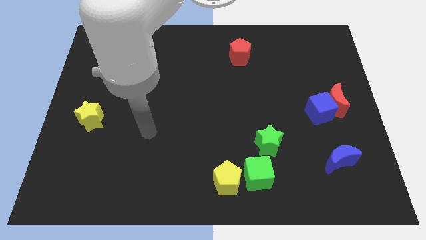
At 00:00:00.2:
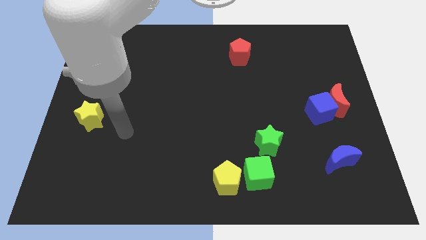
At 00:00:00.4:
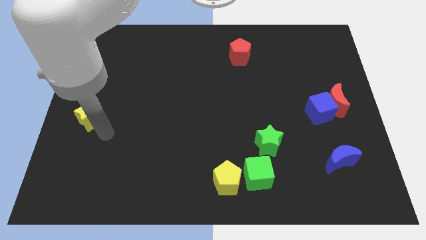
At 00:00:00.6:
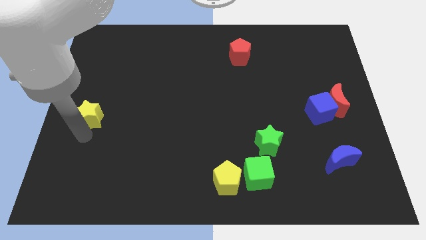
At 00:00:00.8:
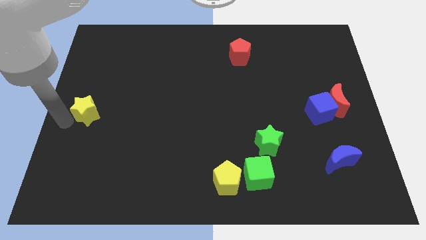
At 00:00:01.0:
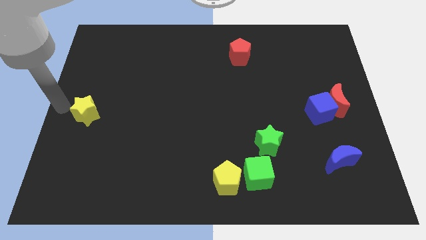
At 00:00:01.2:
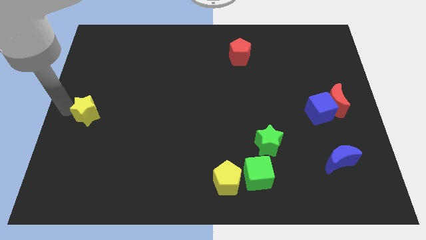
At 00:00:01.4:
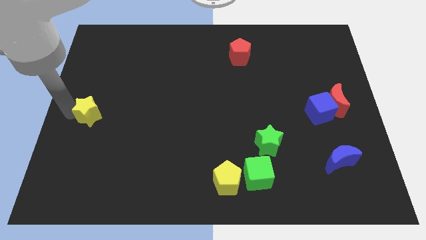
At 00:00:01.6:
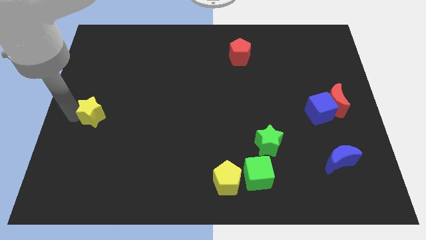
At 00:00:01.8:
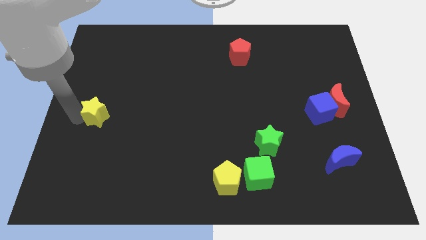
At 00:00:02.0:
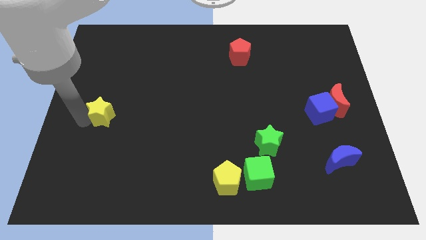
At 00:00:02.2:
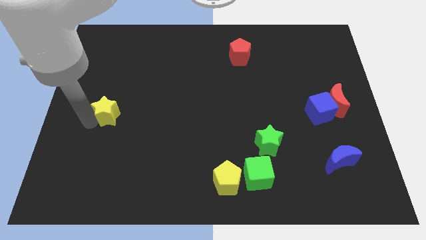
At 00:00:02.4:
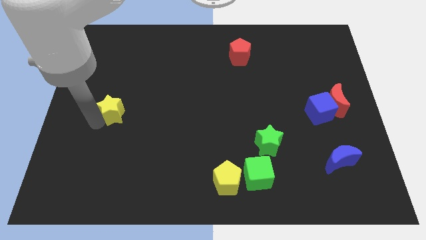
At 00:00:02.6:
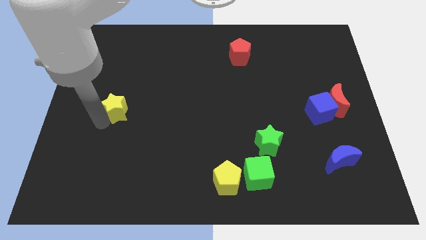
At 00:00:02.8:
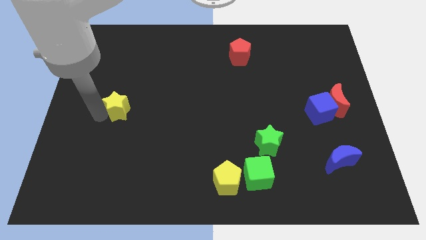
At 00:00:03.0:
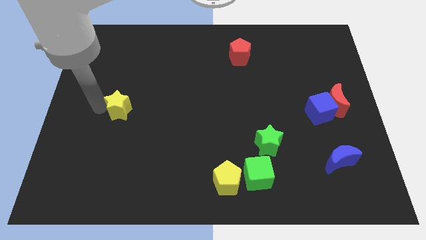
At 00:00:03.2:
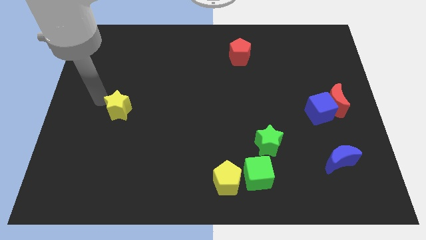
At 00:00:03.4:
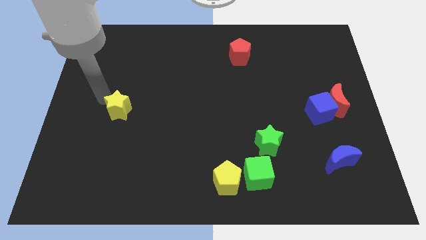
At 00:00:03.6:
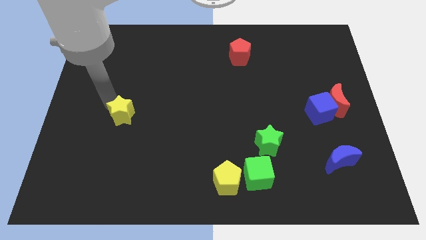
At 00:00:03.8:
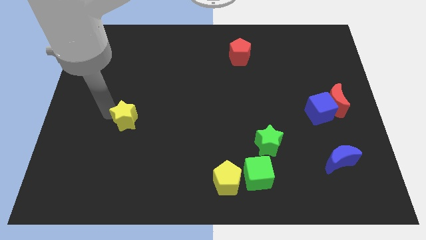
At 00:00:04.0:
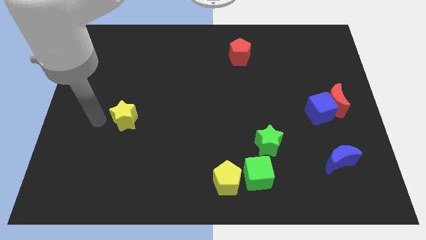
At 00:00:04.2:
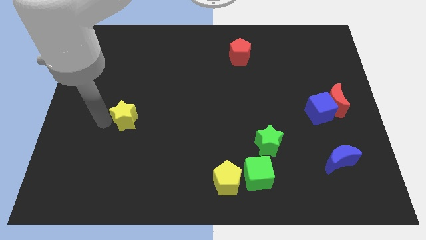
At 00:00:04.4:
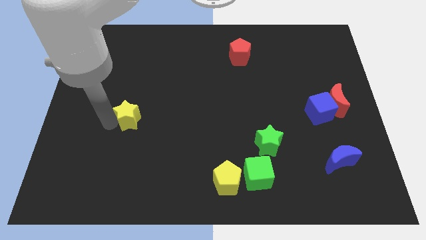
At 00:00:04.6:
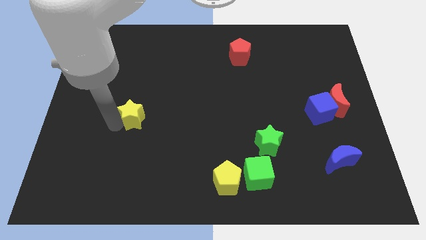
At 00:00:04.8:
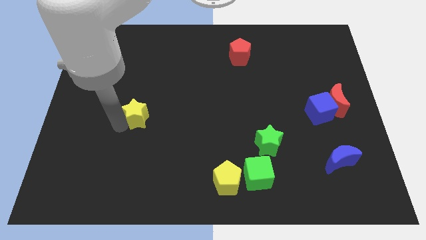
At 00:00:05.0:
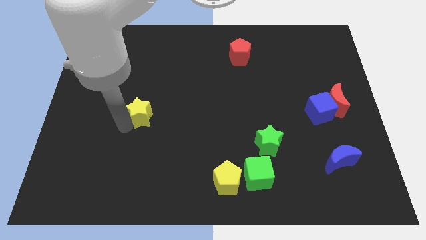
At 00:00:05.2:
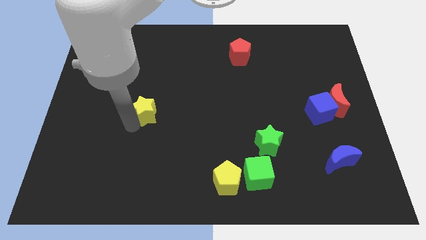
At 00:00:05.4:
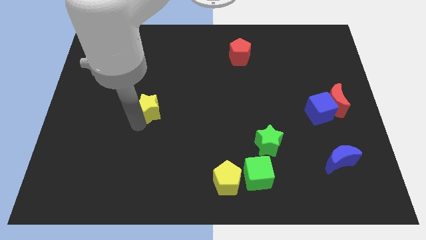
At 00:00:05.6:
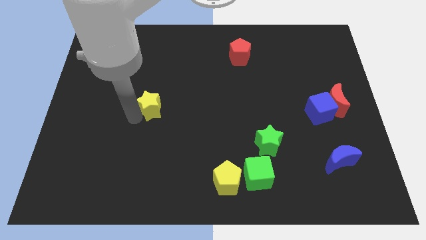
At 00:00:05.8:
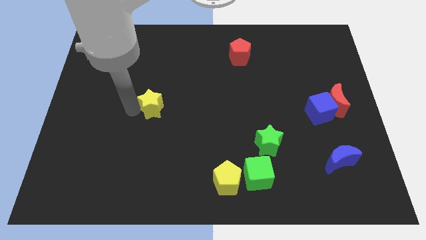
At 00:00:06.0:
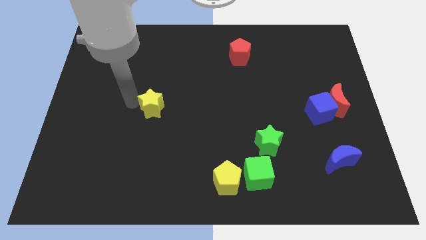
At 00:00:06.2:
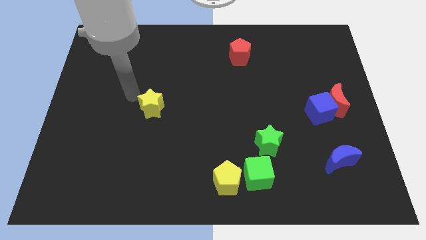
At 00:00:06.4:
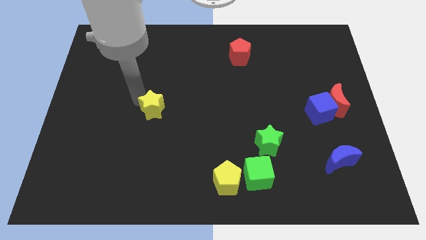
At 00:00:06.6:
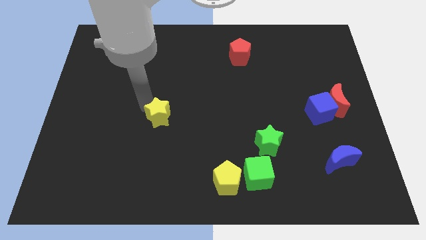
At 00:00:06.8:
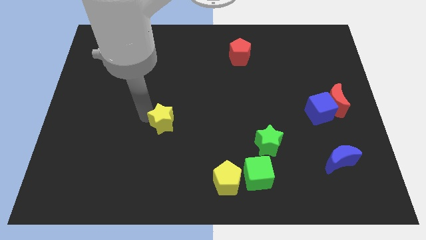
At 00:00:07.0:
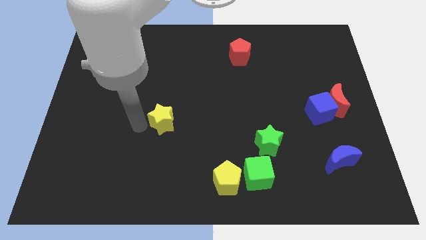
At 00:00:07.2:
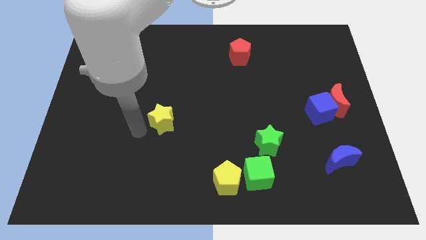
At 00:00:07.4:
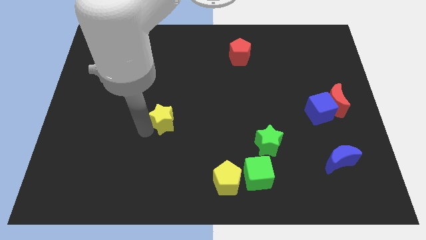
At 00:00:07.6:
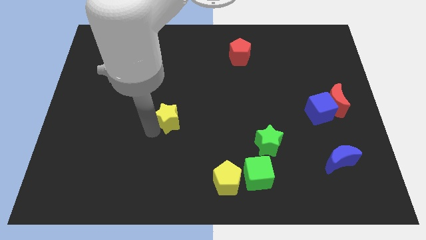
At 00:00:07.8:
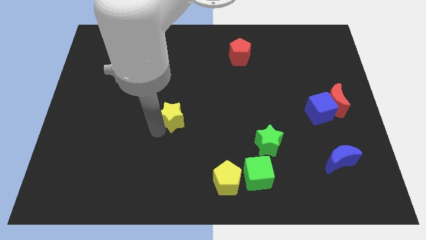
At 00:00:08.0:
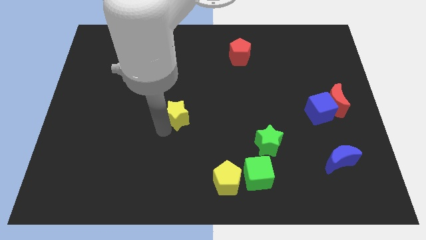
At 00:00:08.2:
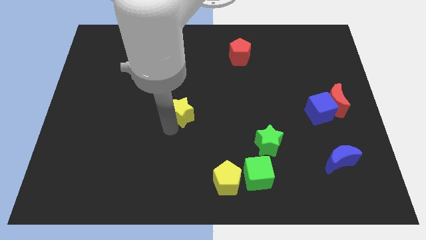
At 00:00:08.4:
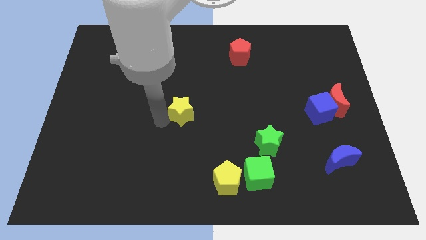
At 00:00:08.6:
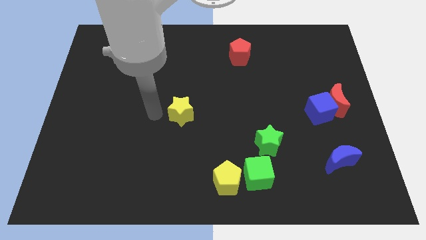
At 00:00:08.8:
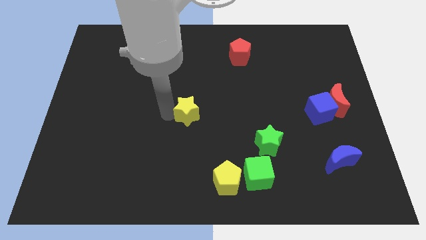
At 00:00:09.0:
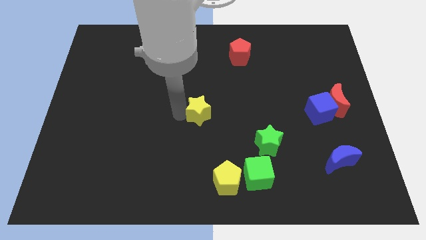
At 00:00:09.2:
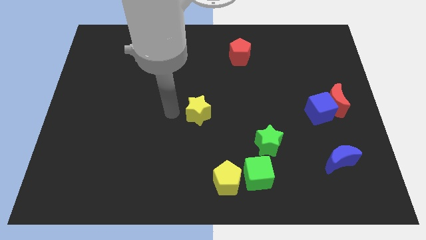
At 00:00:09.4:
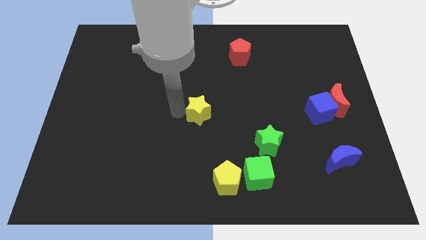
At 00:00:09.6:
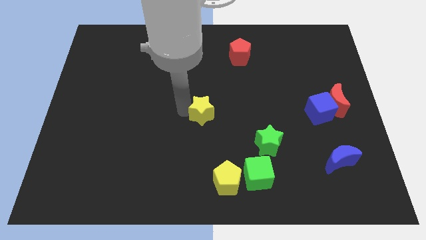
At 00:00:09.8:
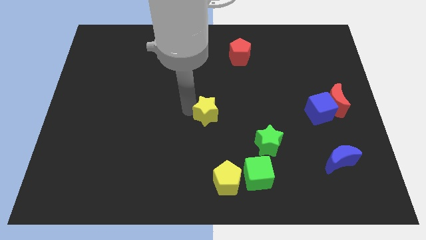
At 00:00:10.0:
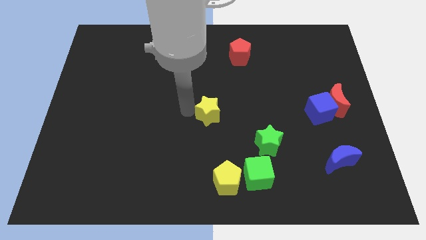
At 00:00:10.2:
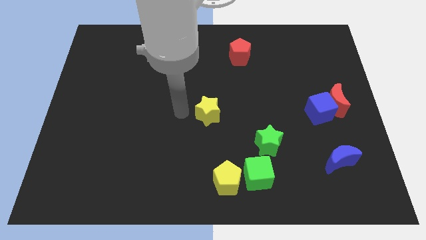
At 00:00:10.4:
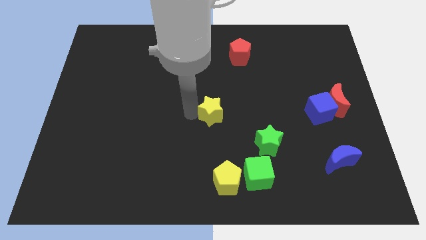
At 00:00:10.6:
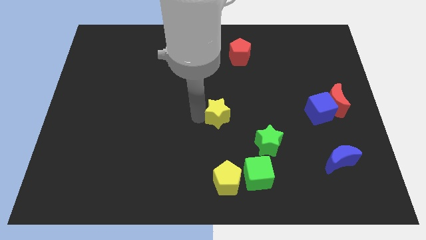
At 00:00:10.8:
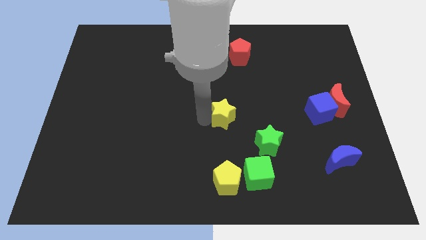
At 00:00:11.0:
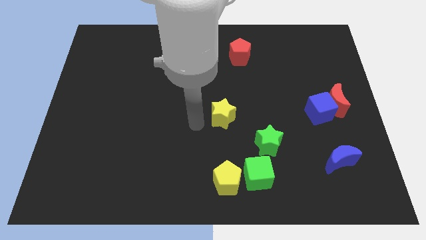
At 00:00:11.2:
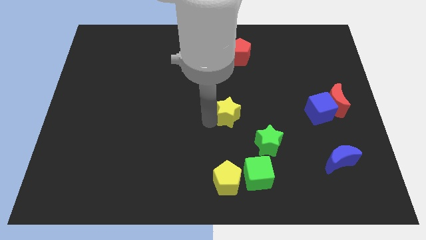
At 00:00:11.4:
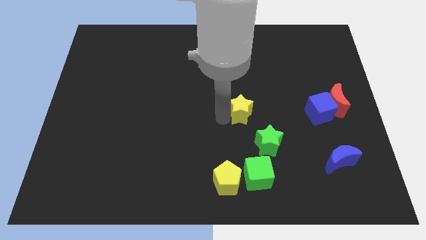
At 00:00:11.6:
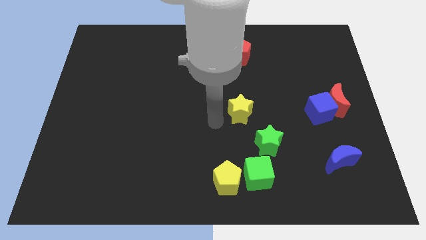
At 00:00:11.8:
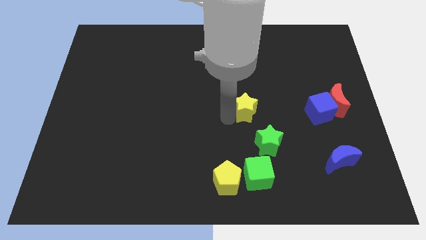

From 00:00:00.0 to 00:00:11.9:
move the yellow star to the top side of the green star

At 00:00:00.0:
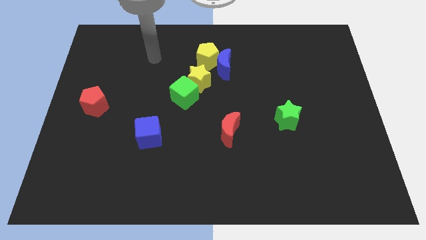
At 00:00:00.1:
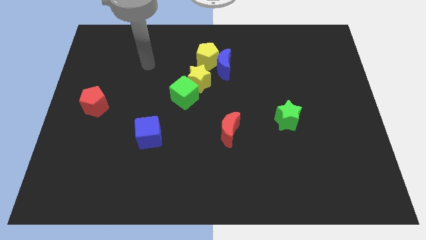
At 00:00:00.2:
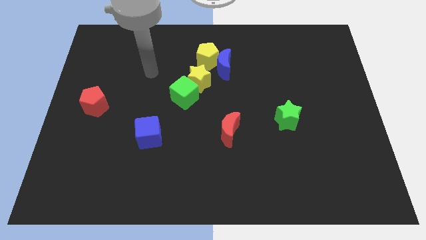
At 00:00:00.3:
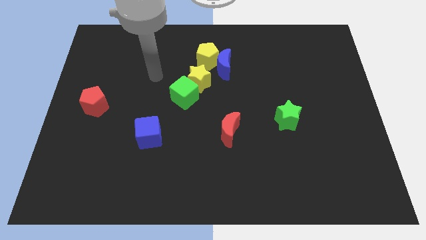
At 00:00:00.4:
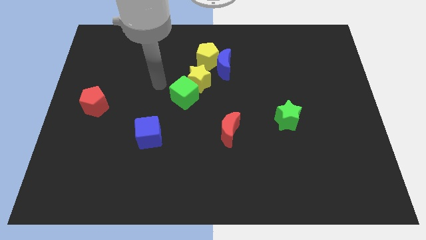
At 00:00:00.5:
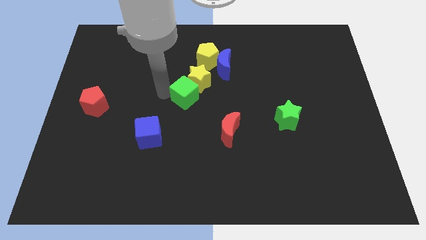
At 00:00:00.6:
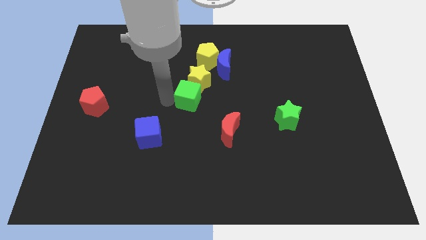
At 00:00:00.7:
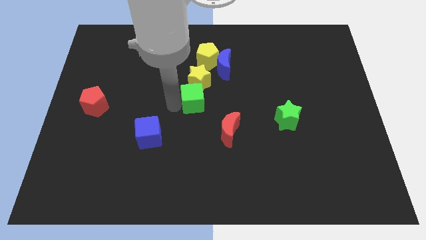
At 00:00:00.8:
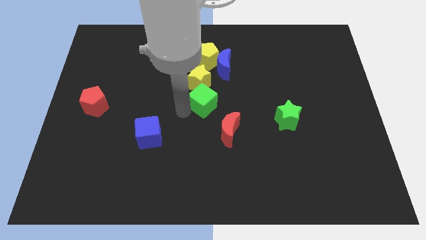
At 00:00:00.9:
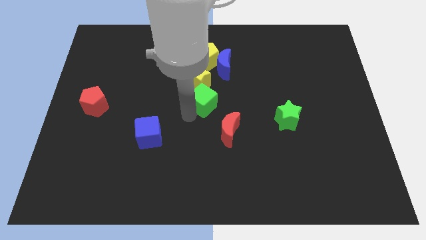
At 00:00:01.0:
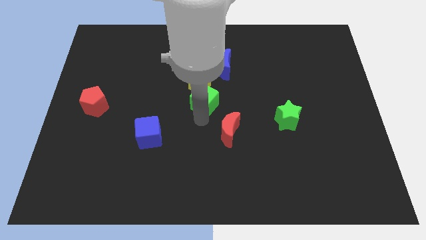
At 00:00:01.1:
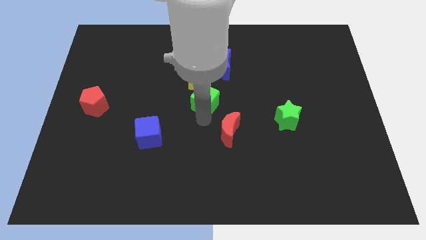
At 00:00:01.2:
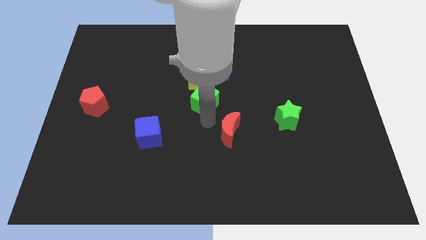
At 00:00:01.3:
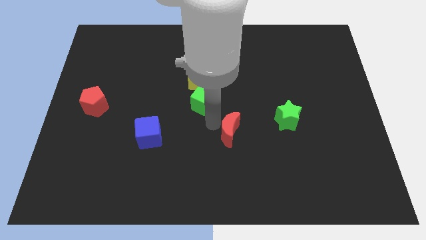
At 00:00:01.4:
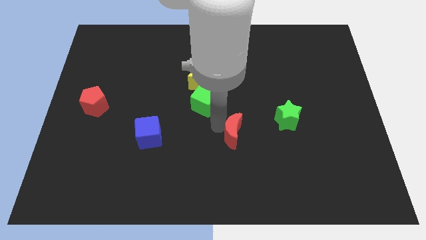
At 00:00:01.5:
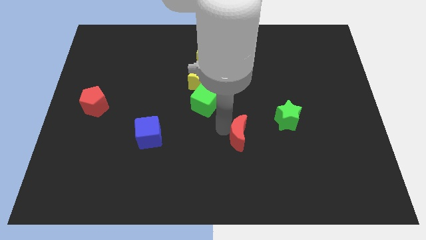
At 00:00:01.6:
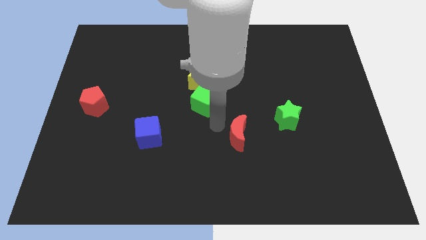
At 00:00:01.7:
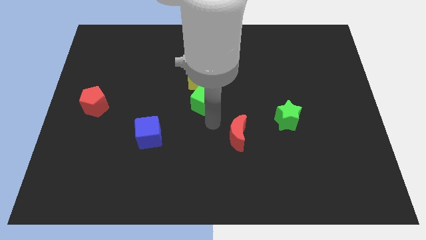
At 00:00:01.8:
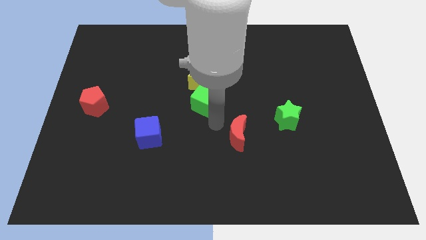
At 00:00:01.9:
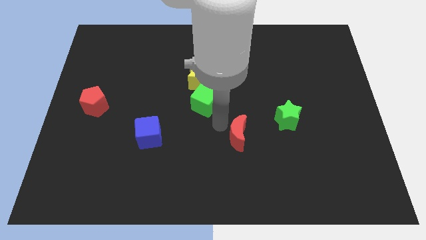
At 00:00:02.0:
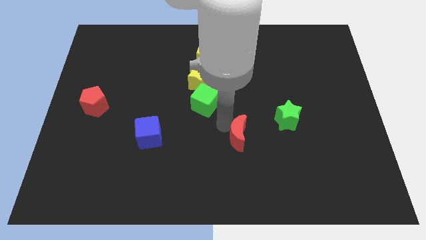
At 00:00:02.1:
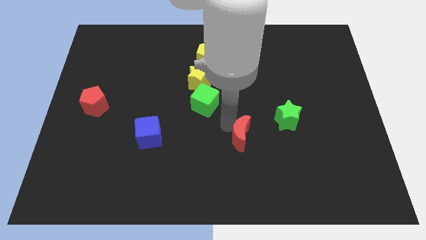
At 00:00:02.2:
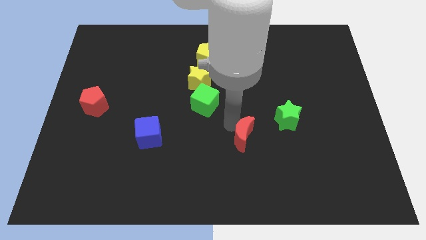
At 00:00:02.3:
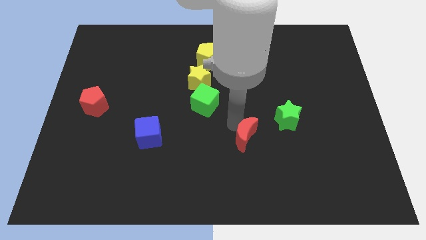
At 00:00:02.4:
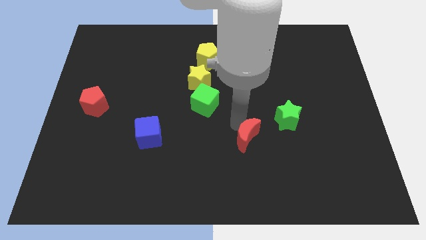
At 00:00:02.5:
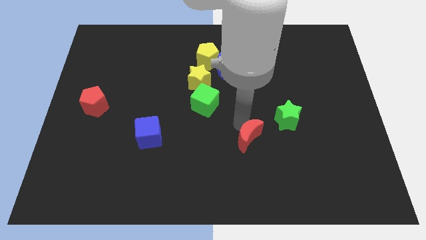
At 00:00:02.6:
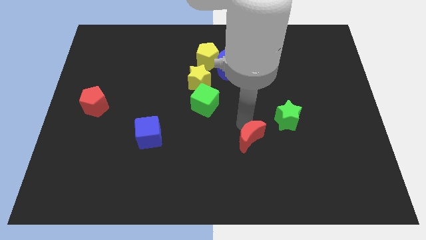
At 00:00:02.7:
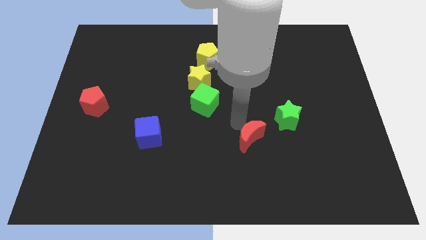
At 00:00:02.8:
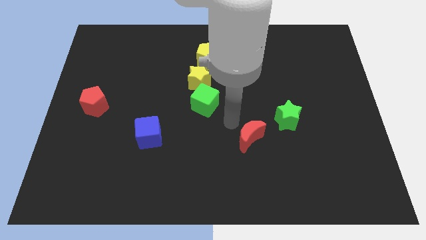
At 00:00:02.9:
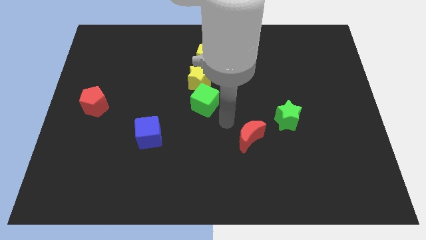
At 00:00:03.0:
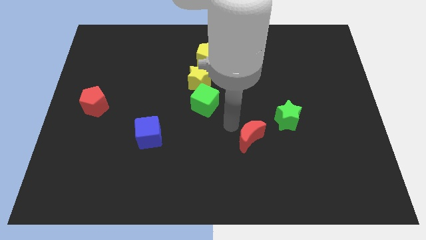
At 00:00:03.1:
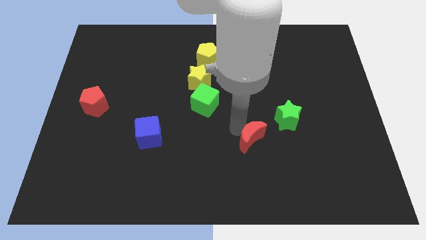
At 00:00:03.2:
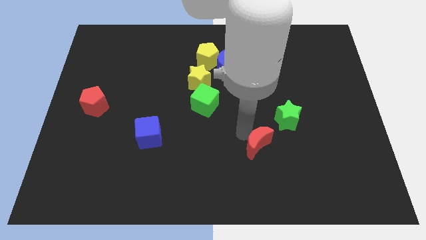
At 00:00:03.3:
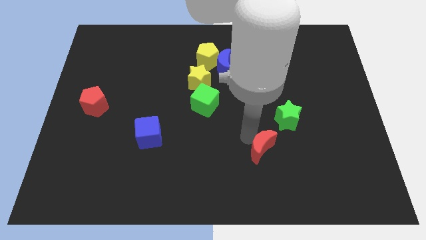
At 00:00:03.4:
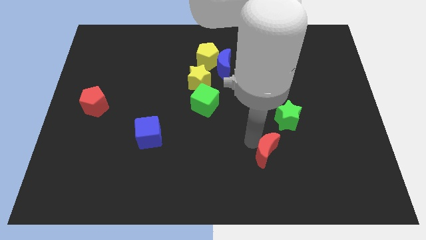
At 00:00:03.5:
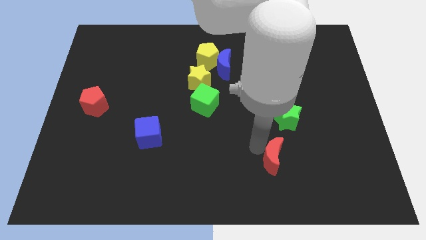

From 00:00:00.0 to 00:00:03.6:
push the red moon to the bottom of the green star
